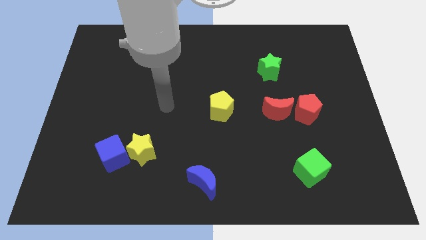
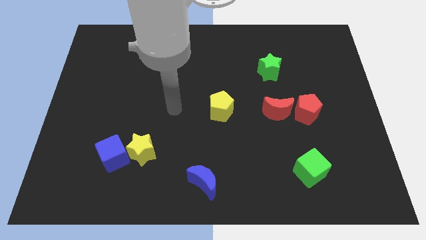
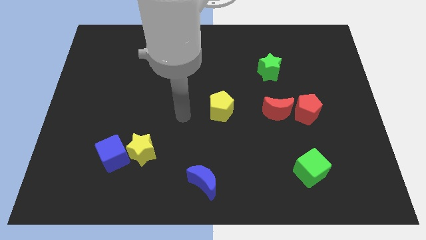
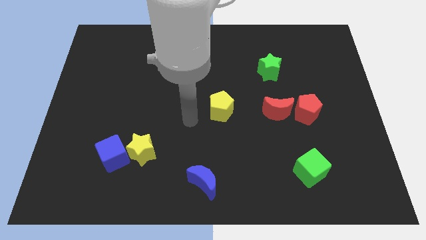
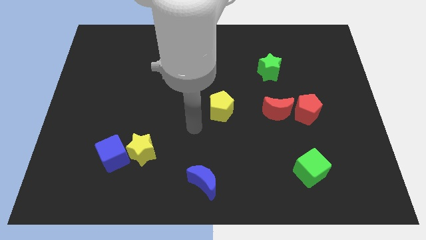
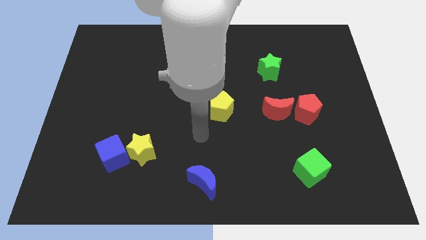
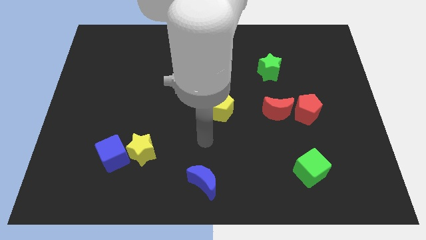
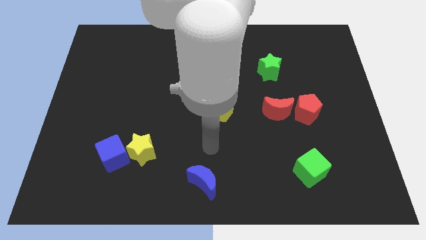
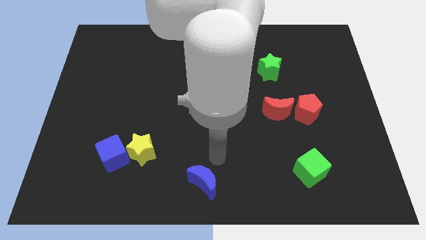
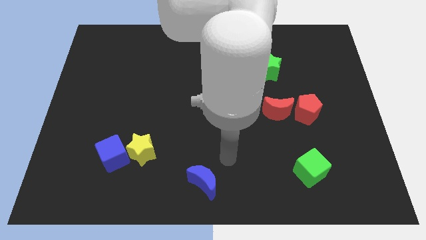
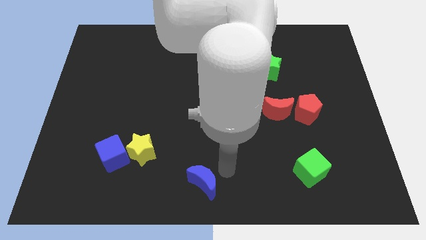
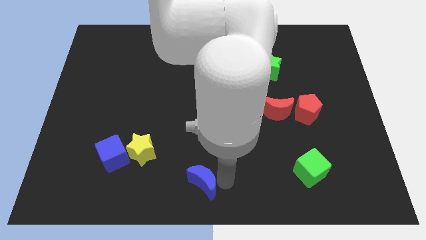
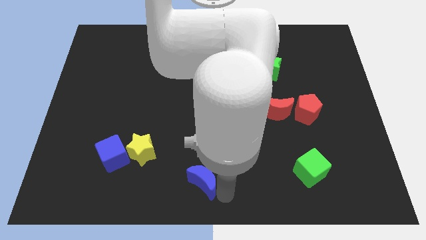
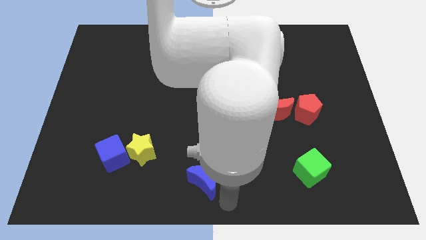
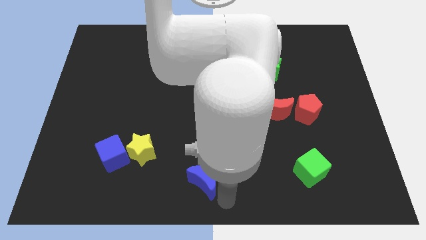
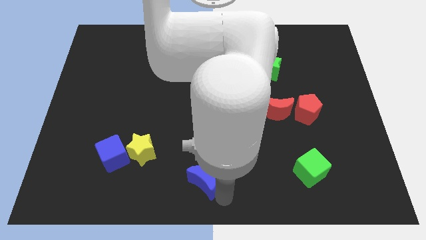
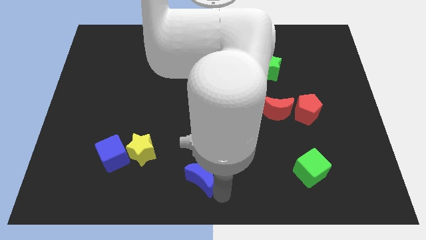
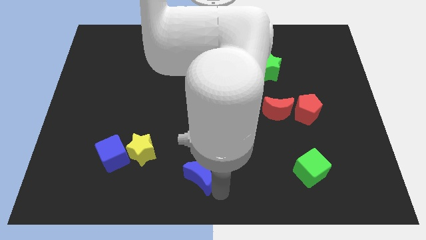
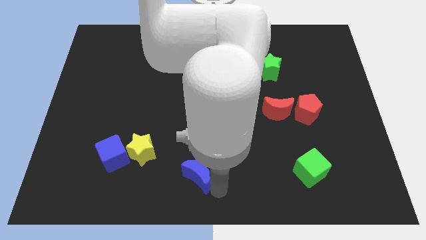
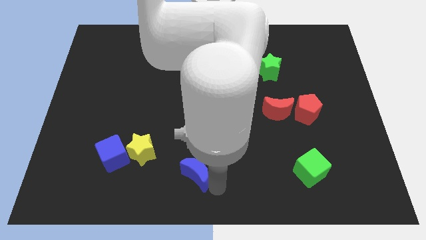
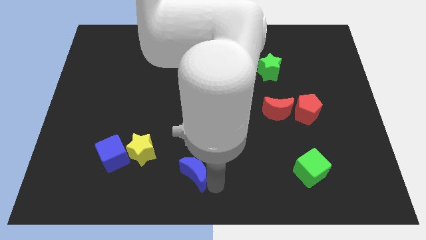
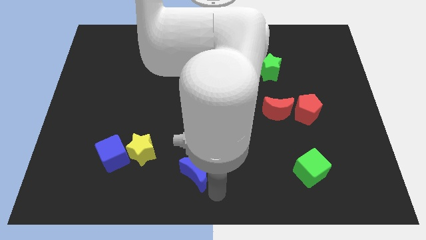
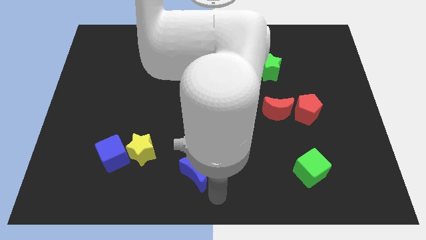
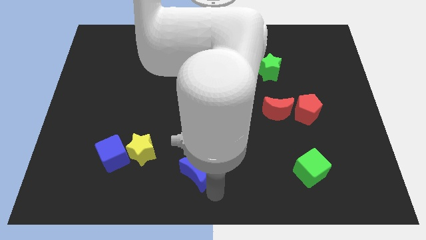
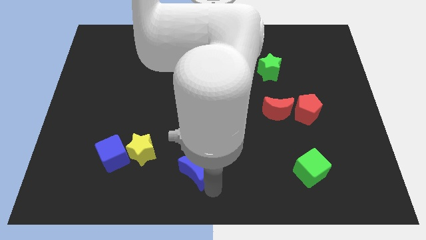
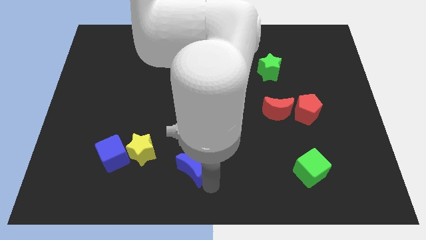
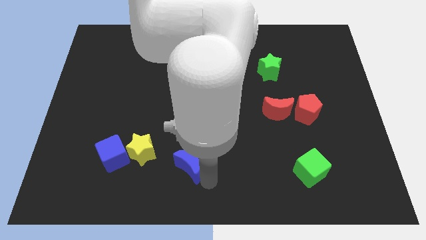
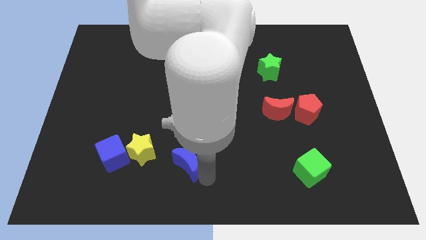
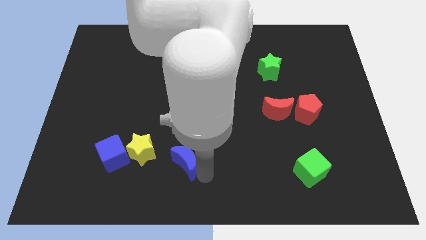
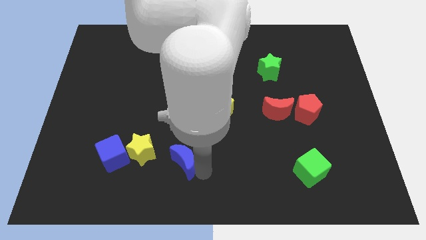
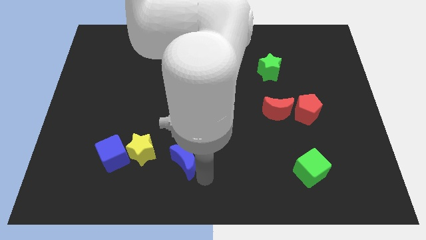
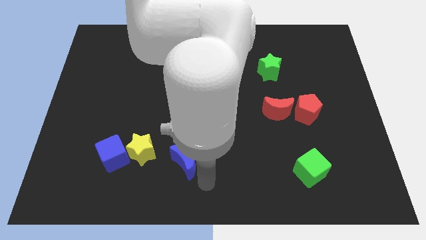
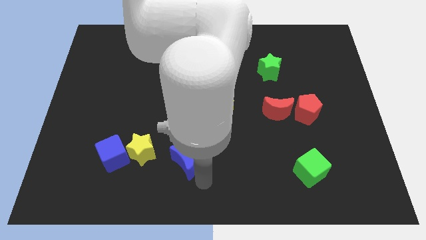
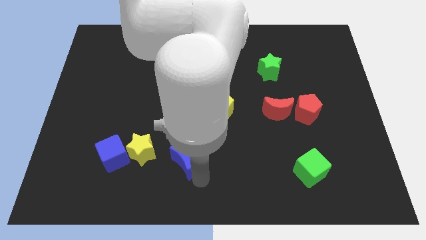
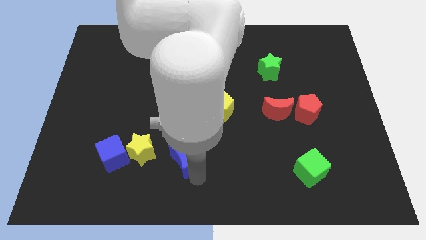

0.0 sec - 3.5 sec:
slightly move the blue moon up and to the left

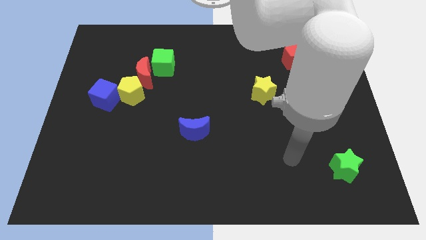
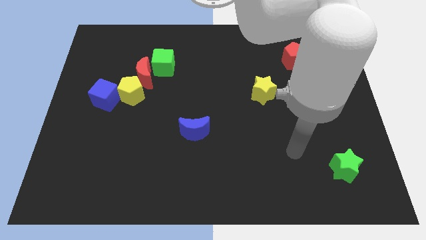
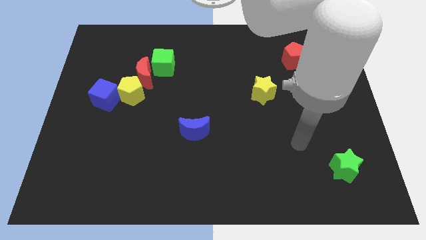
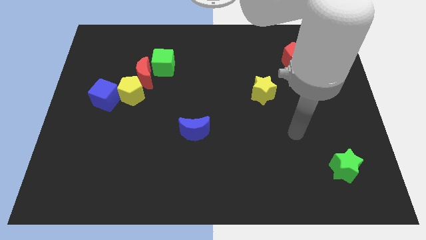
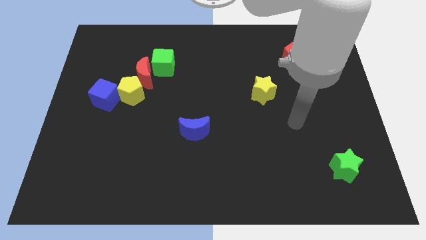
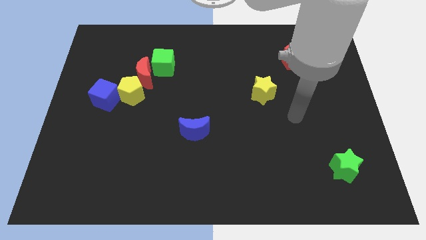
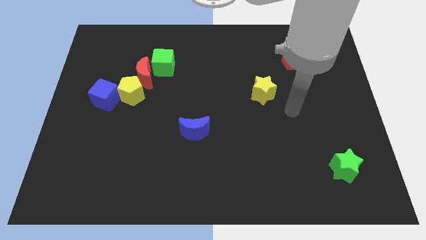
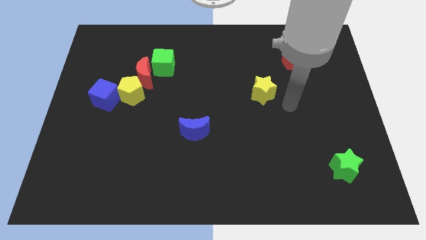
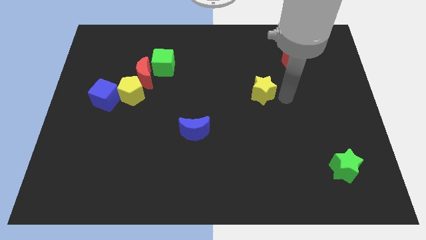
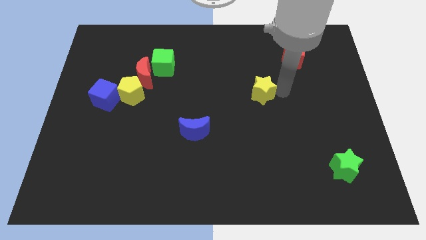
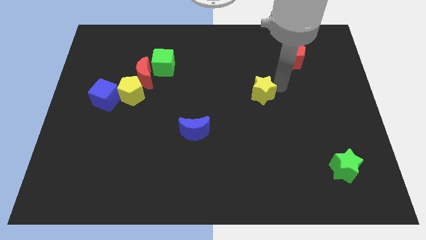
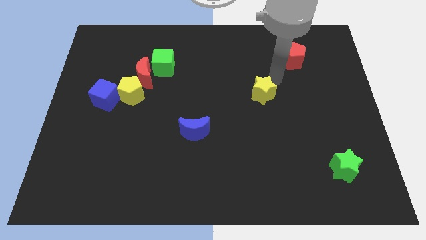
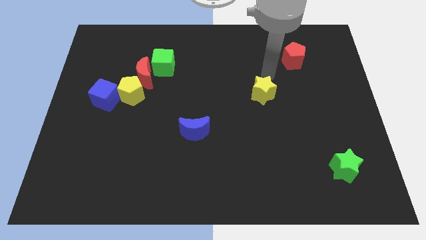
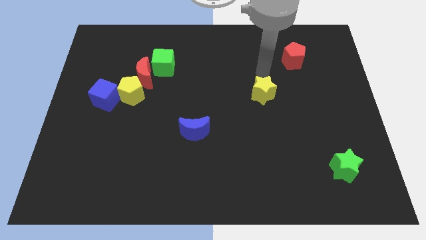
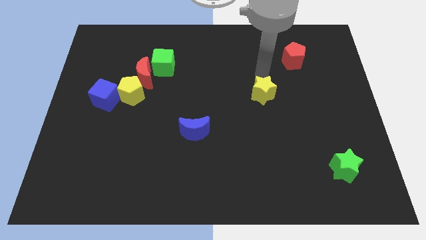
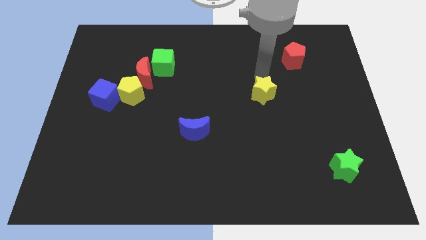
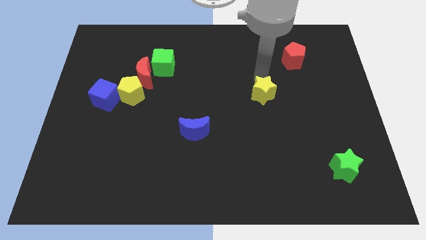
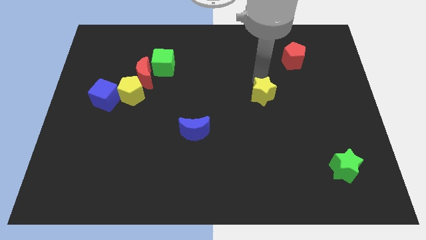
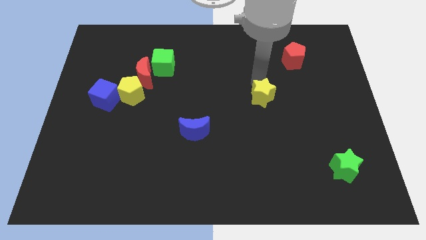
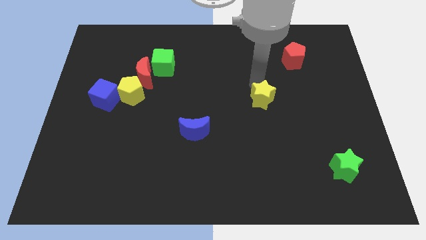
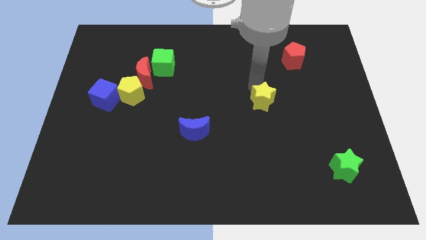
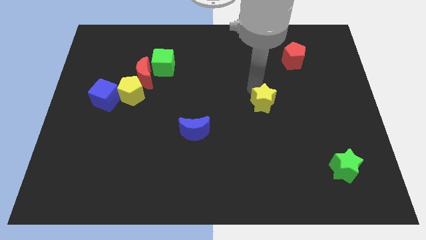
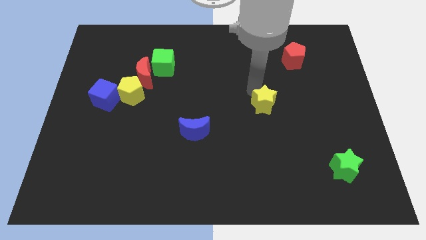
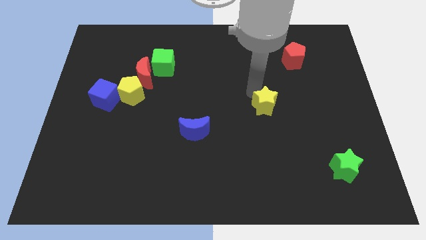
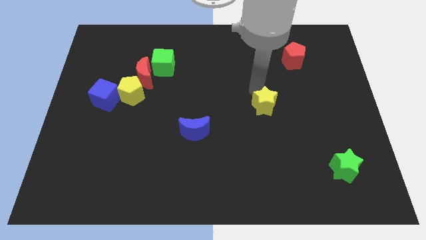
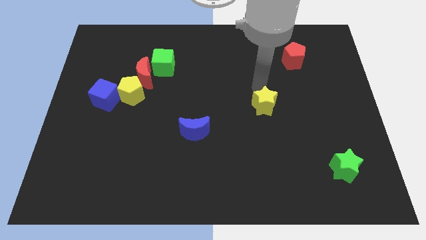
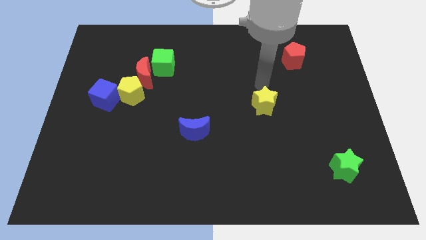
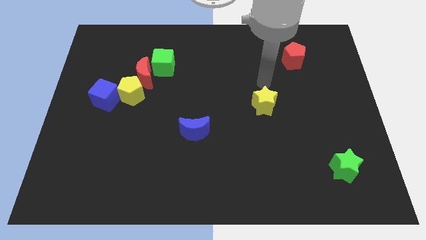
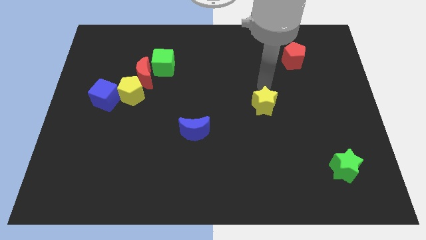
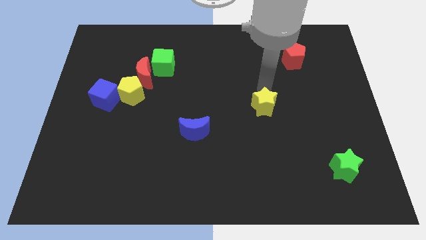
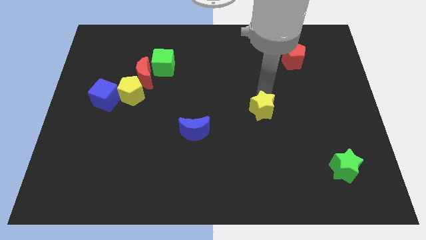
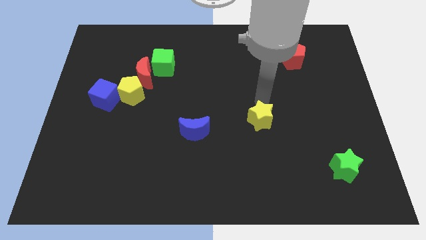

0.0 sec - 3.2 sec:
slightly move the yellow star downwards

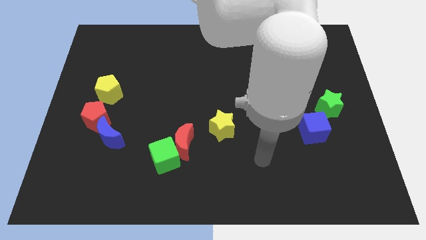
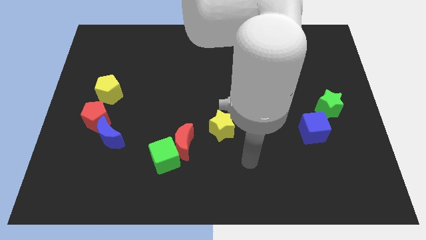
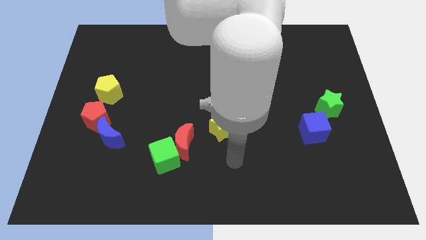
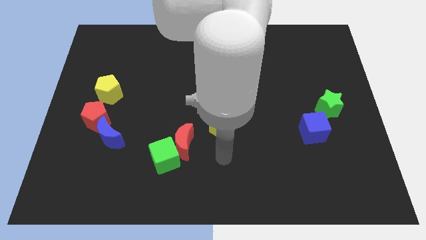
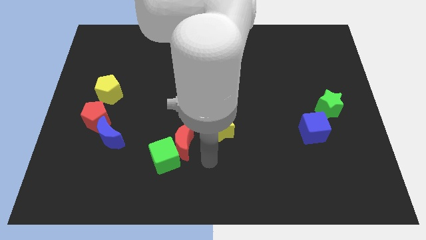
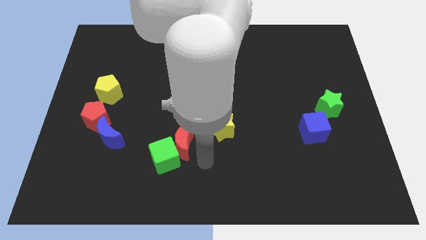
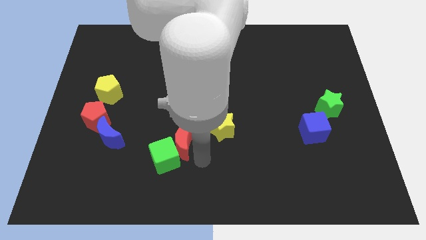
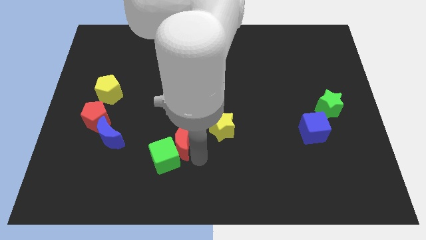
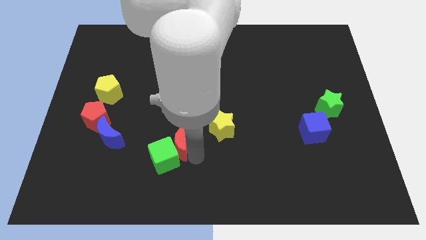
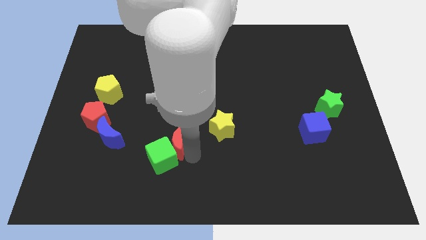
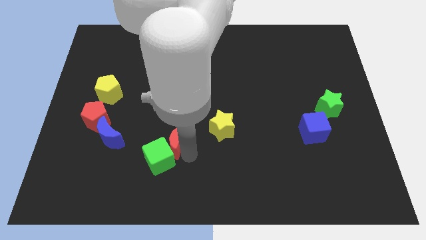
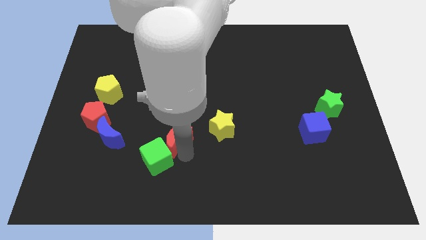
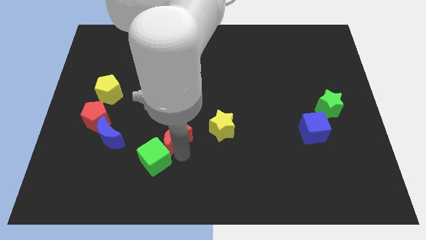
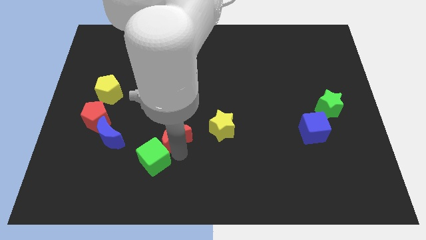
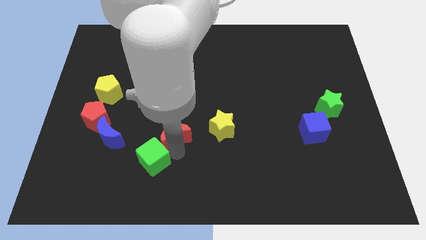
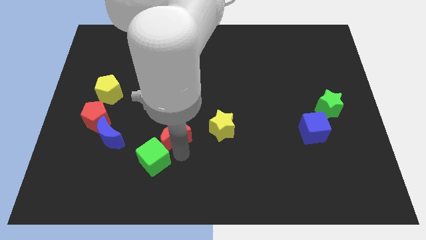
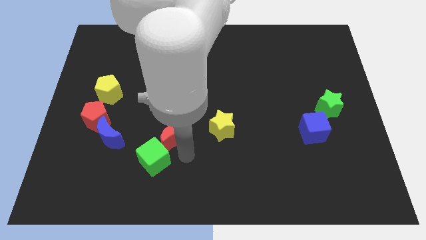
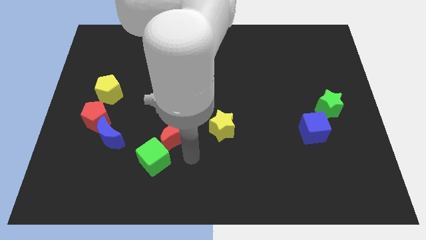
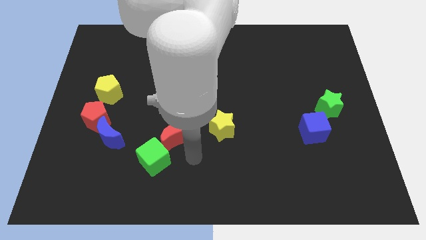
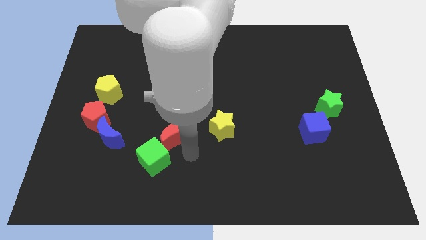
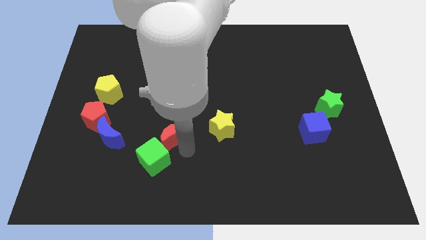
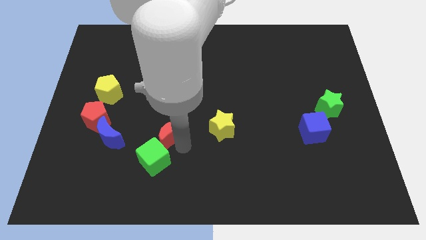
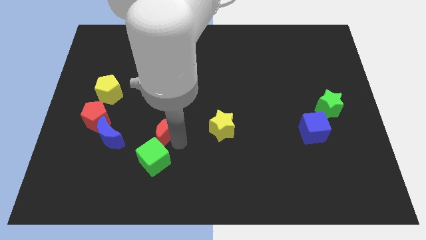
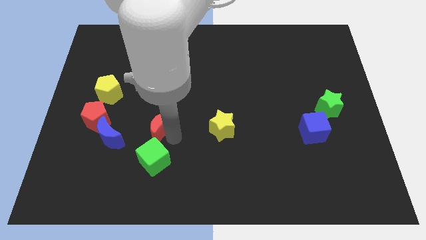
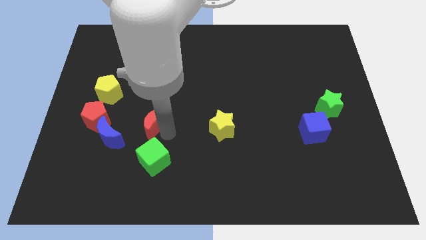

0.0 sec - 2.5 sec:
slide the red moon up and to the left diagonally a bit
